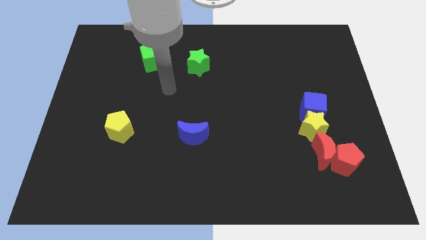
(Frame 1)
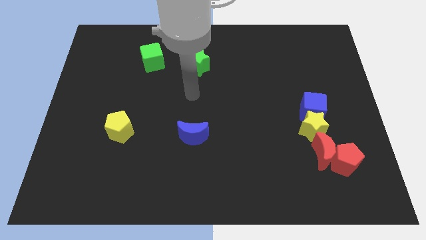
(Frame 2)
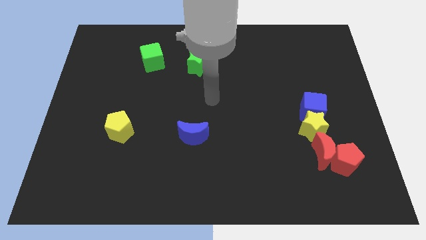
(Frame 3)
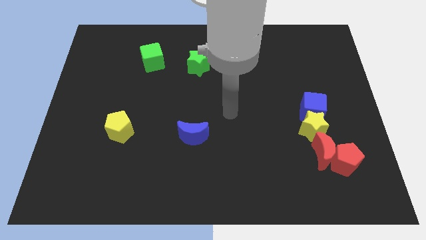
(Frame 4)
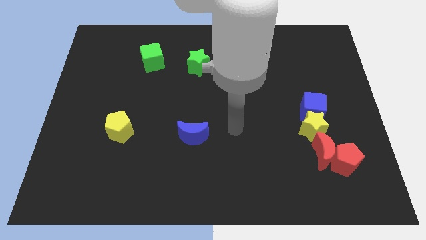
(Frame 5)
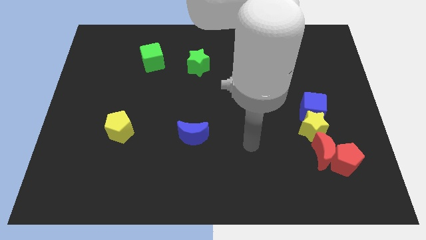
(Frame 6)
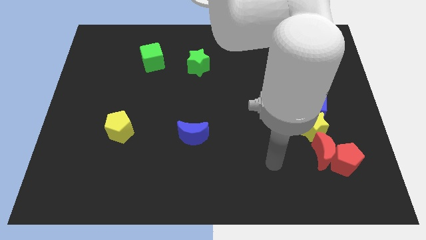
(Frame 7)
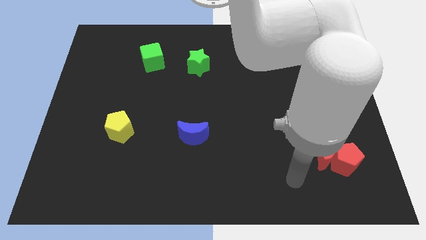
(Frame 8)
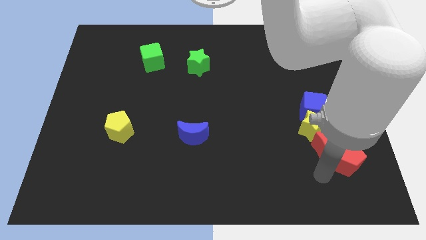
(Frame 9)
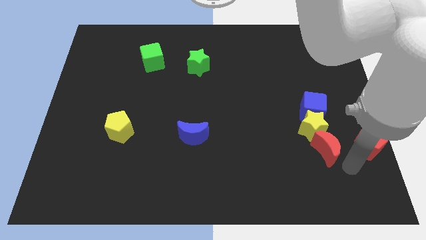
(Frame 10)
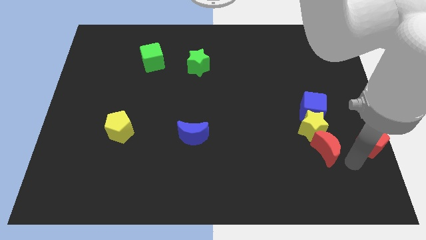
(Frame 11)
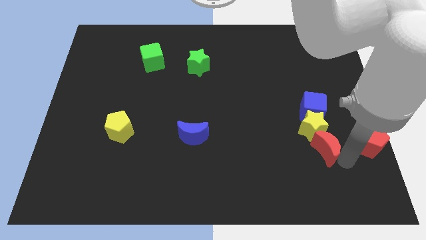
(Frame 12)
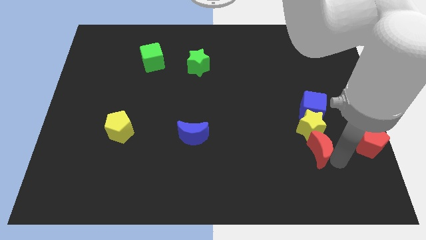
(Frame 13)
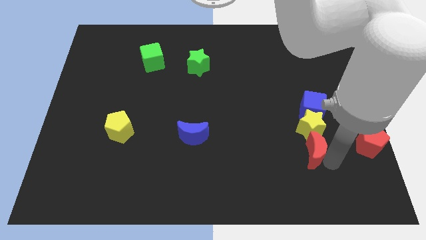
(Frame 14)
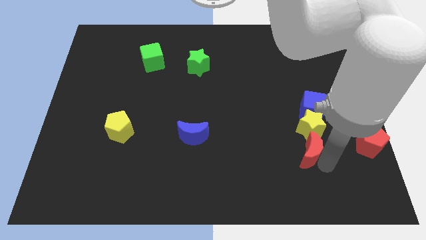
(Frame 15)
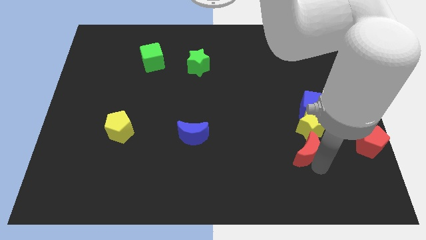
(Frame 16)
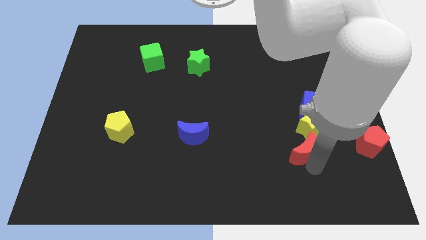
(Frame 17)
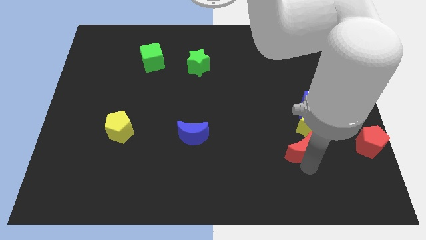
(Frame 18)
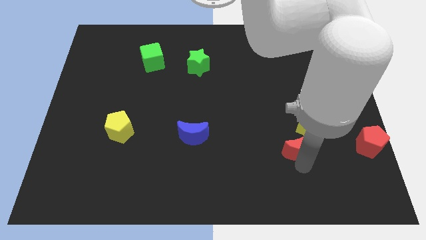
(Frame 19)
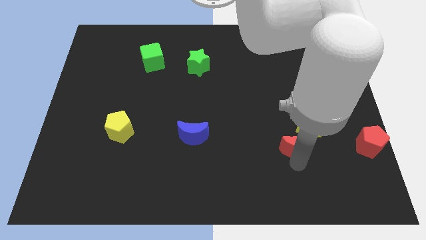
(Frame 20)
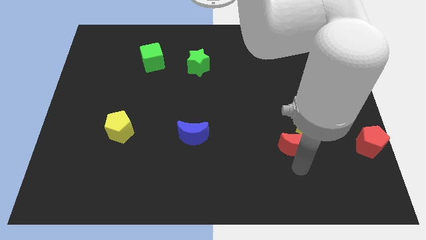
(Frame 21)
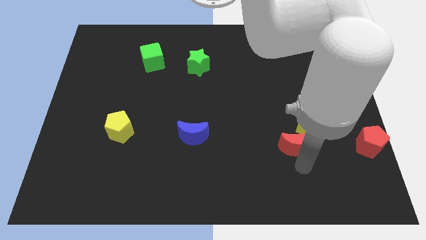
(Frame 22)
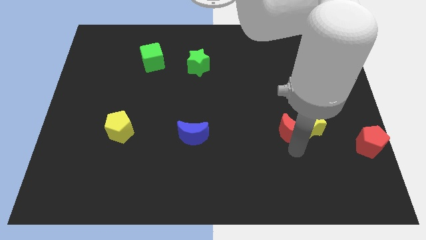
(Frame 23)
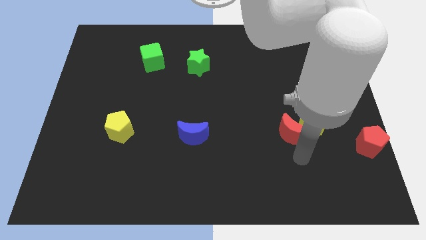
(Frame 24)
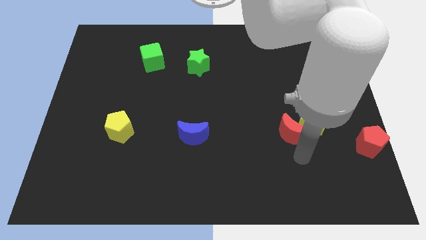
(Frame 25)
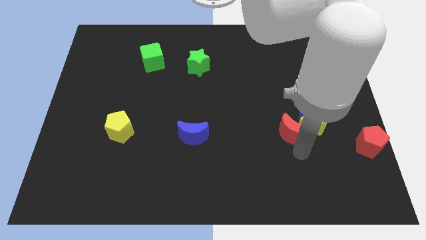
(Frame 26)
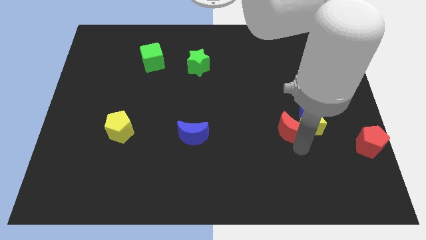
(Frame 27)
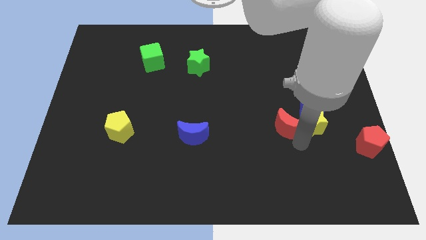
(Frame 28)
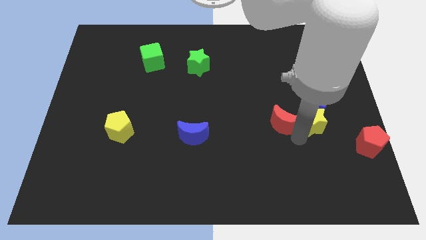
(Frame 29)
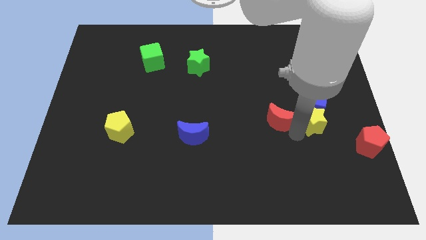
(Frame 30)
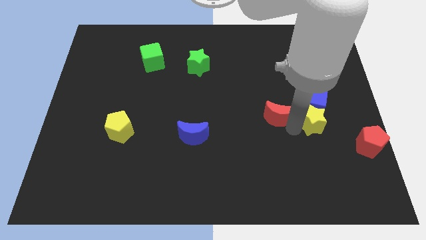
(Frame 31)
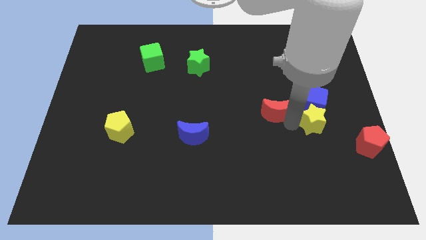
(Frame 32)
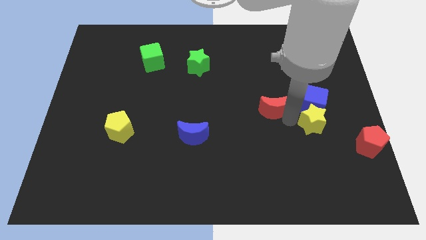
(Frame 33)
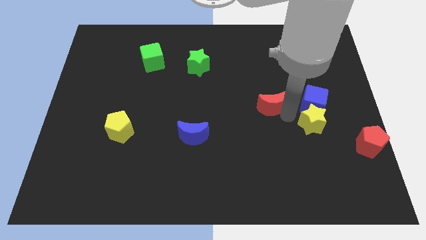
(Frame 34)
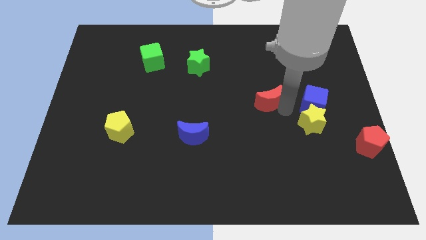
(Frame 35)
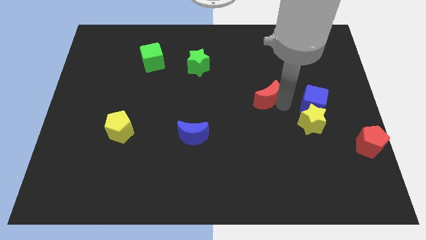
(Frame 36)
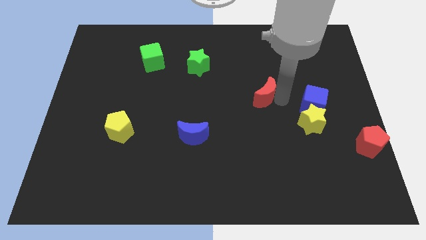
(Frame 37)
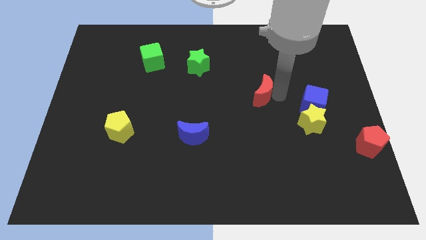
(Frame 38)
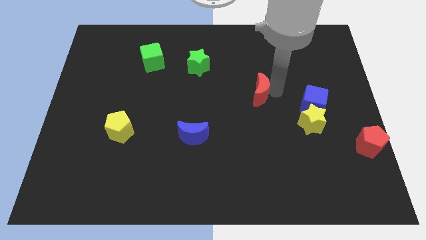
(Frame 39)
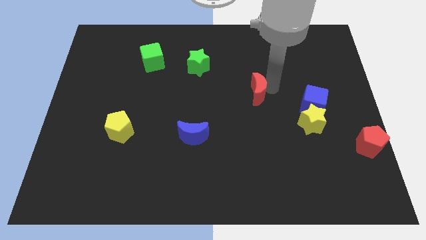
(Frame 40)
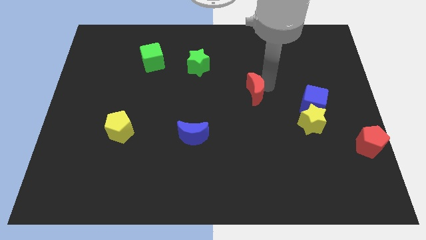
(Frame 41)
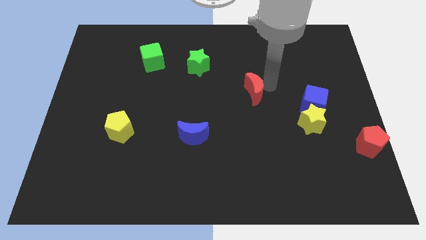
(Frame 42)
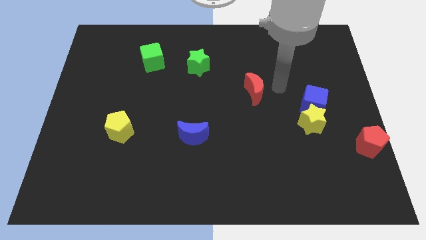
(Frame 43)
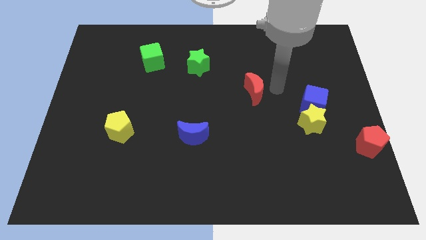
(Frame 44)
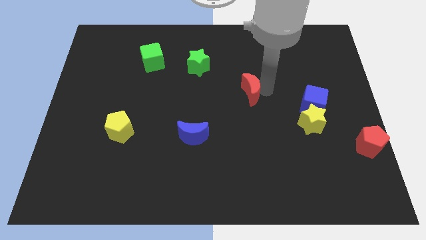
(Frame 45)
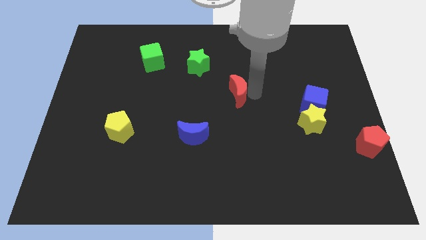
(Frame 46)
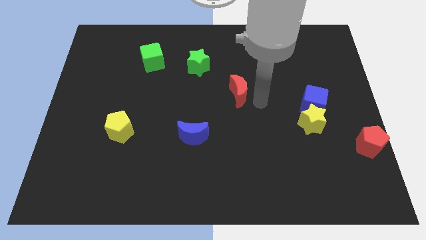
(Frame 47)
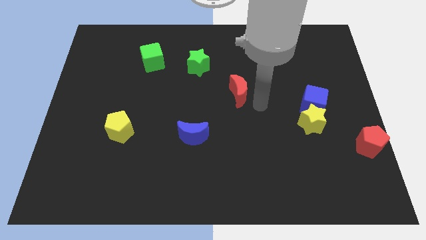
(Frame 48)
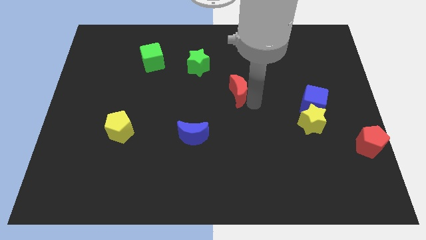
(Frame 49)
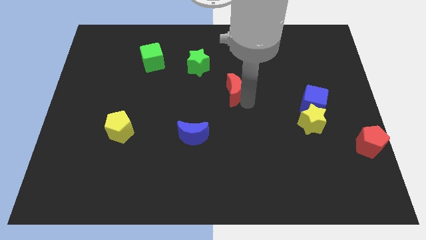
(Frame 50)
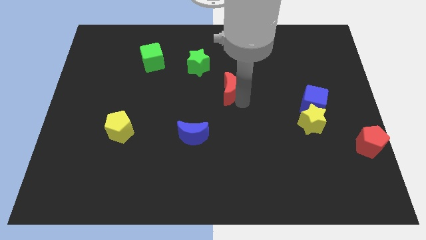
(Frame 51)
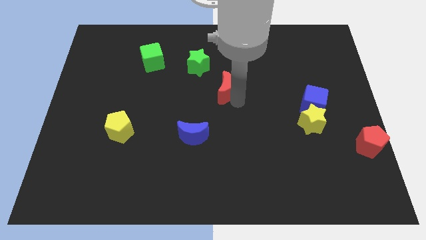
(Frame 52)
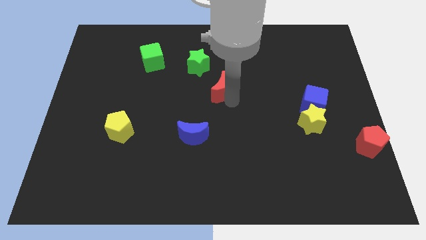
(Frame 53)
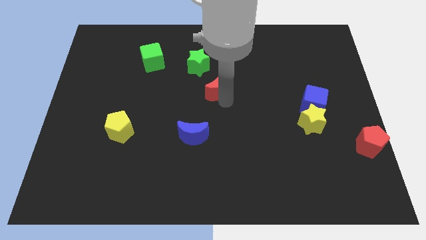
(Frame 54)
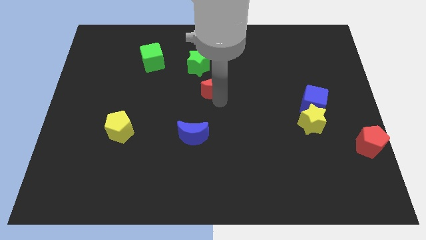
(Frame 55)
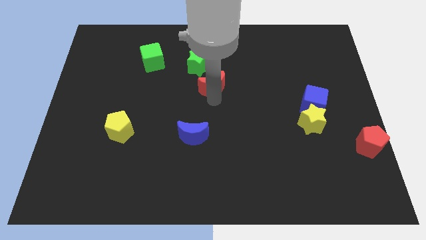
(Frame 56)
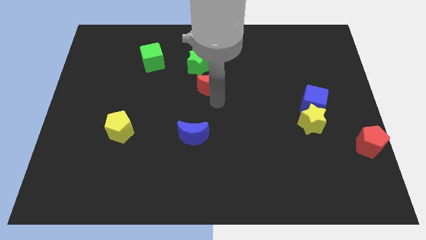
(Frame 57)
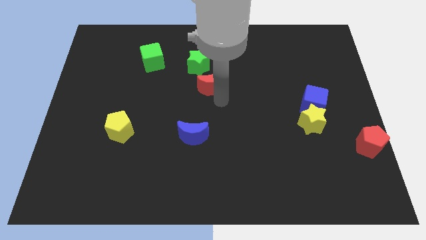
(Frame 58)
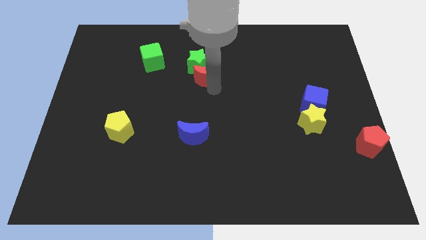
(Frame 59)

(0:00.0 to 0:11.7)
push the red moon close to the green star

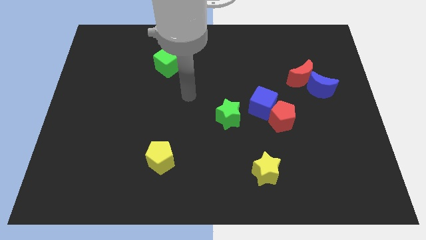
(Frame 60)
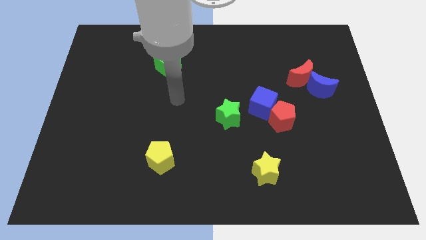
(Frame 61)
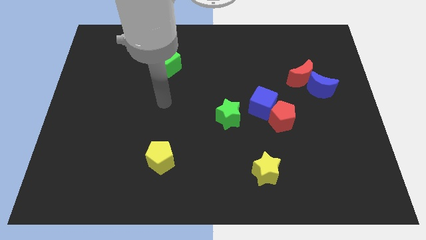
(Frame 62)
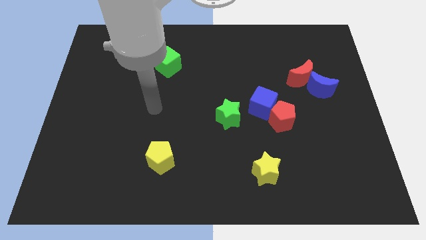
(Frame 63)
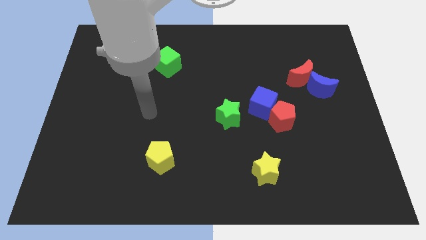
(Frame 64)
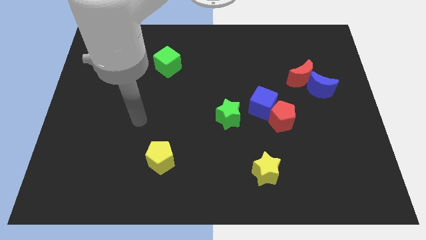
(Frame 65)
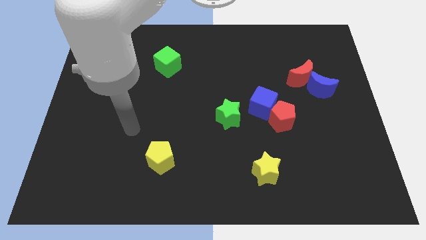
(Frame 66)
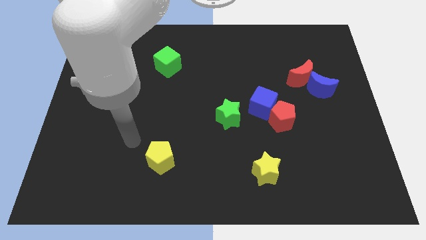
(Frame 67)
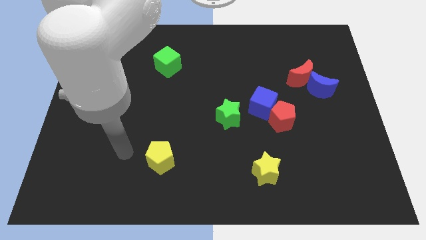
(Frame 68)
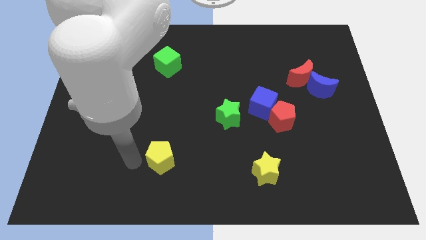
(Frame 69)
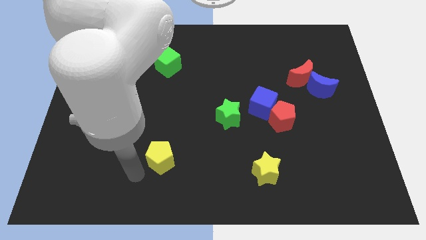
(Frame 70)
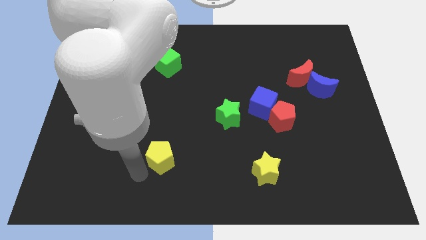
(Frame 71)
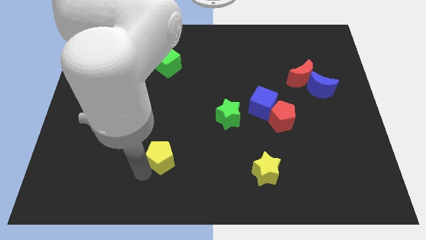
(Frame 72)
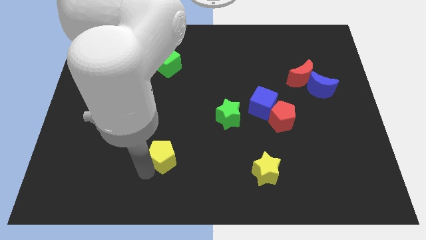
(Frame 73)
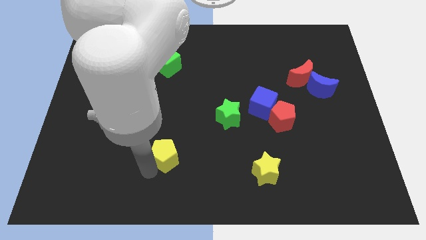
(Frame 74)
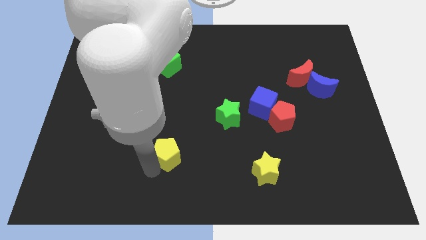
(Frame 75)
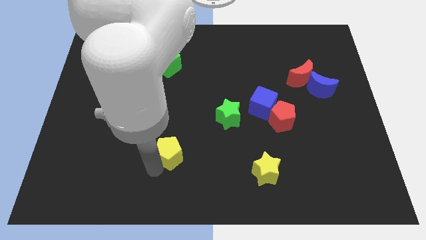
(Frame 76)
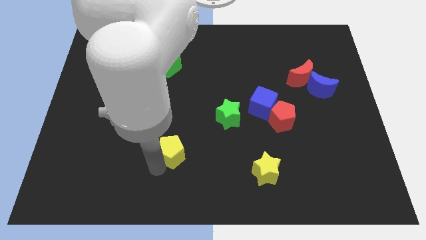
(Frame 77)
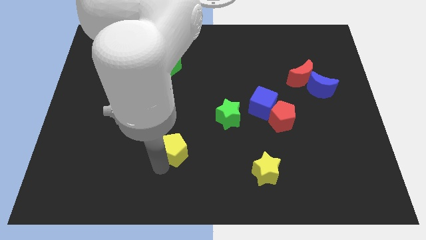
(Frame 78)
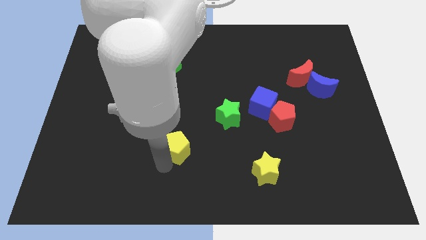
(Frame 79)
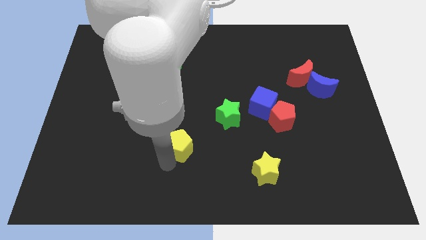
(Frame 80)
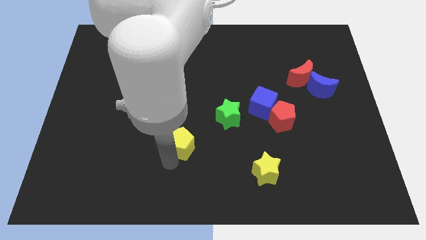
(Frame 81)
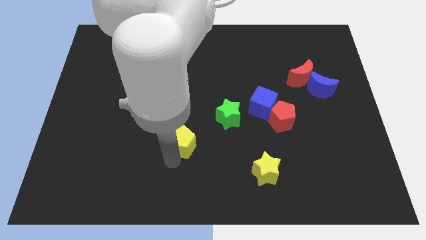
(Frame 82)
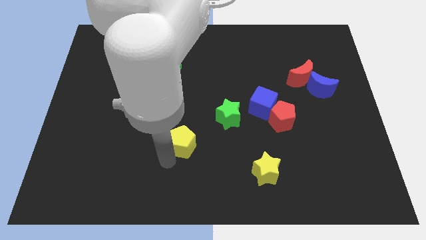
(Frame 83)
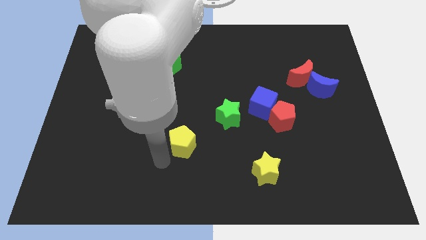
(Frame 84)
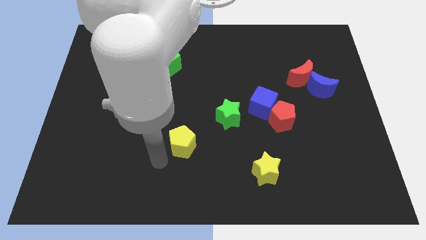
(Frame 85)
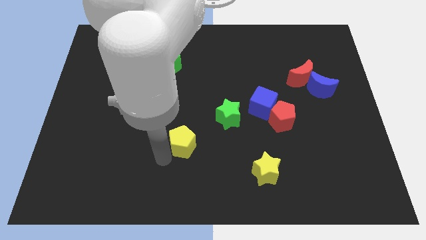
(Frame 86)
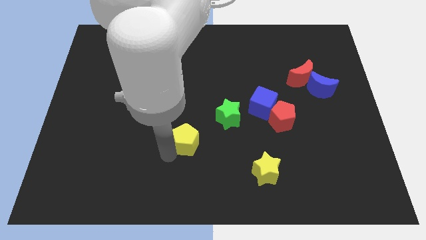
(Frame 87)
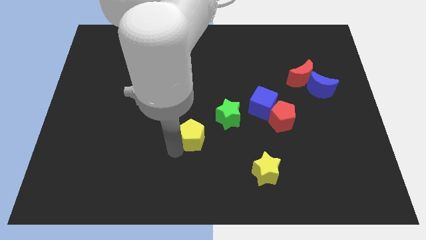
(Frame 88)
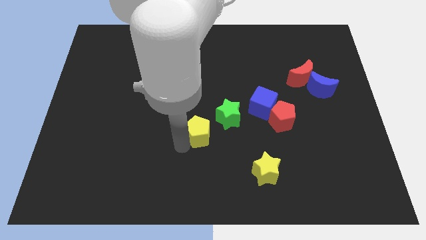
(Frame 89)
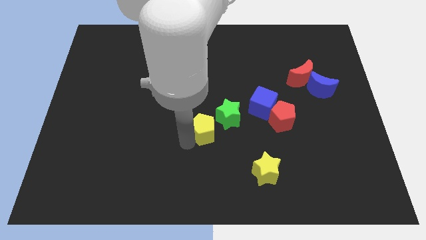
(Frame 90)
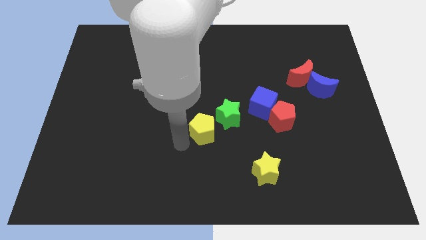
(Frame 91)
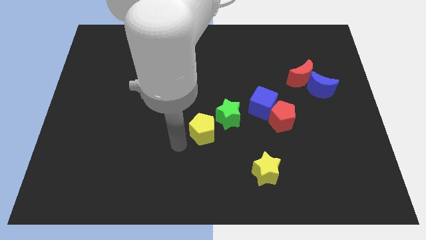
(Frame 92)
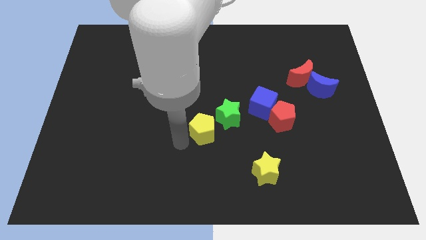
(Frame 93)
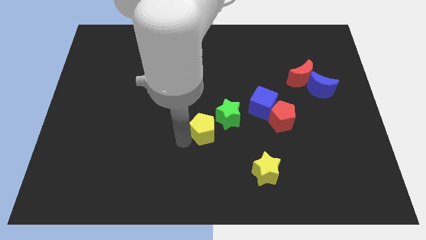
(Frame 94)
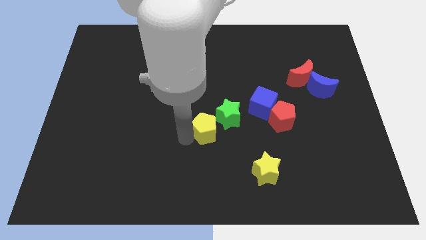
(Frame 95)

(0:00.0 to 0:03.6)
put the yellow pentagon next to the green star
